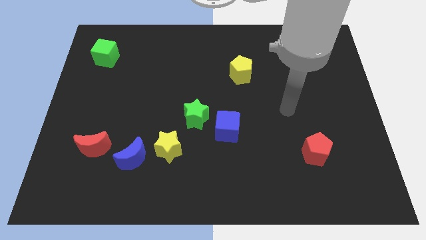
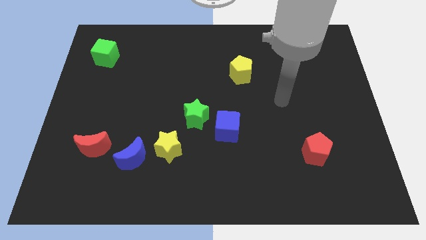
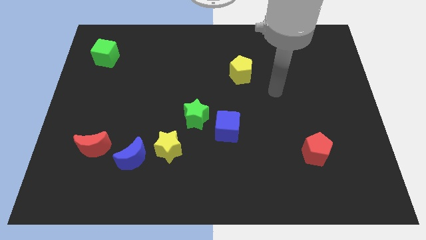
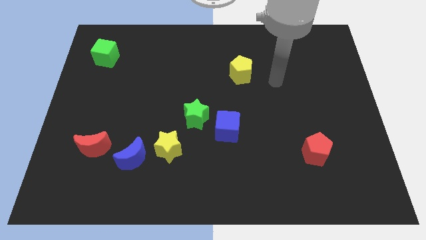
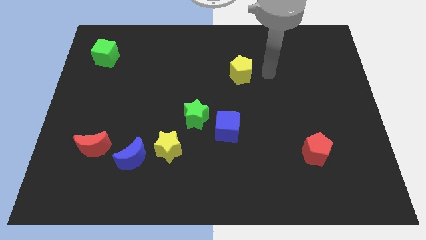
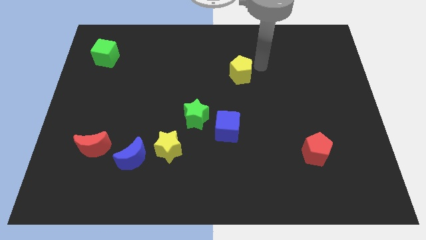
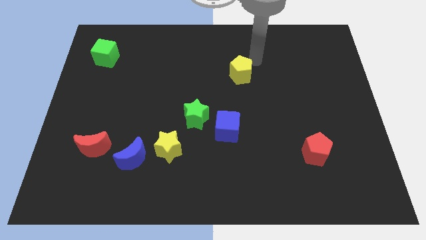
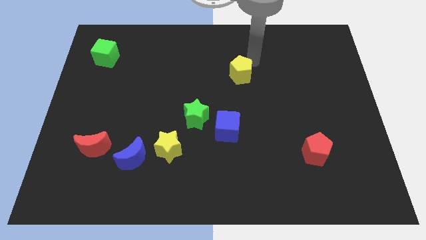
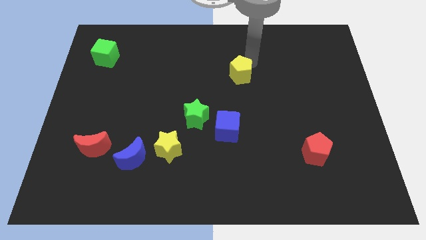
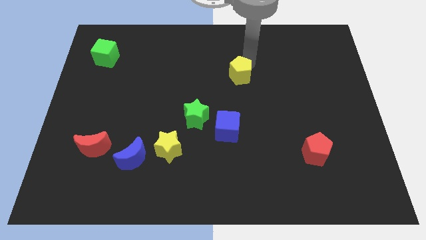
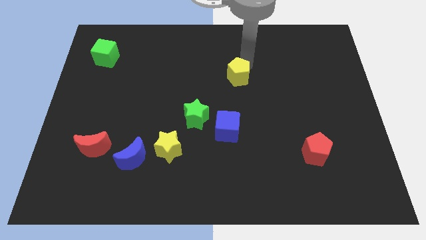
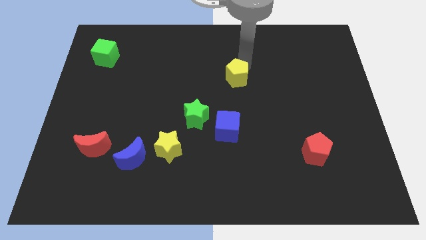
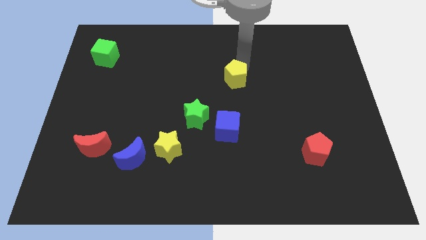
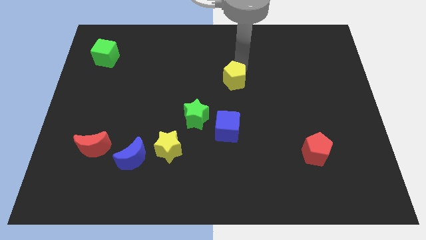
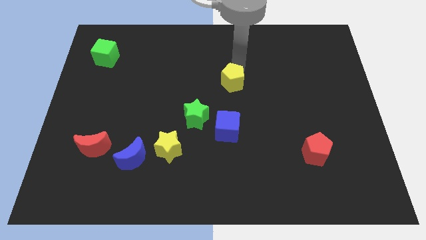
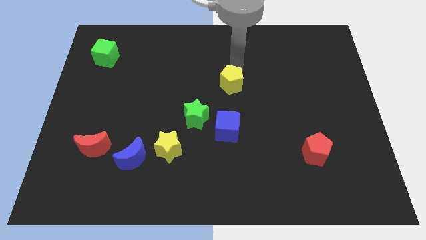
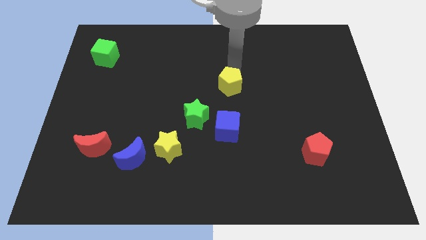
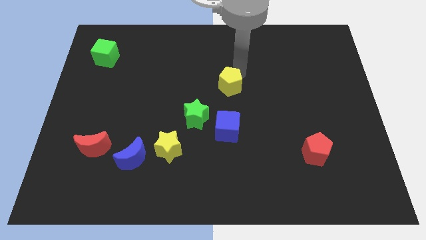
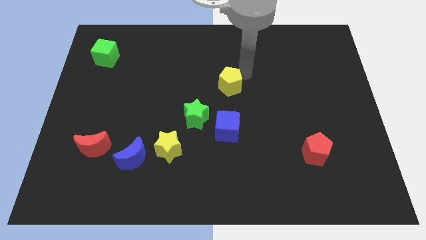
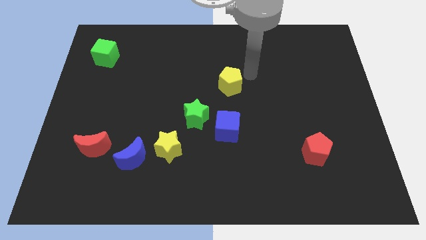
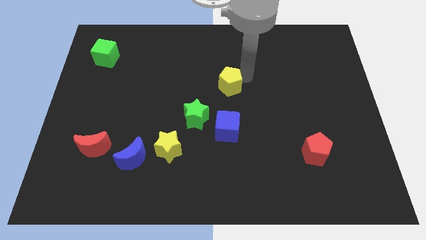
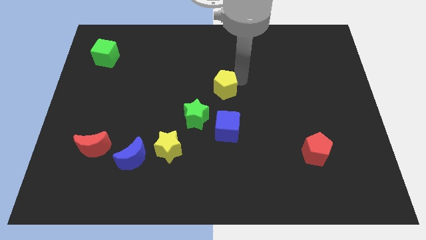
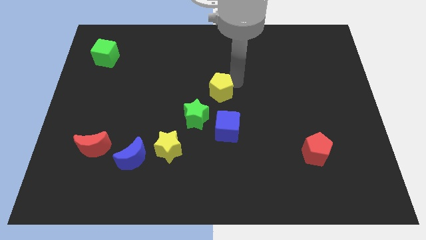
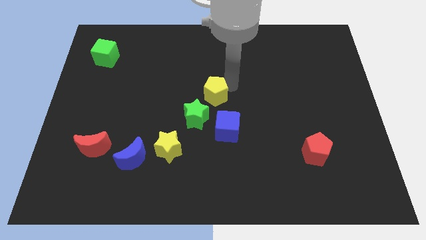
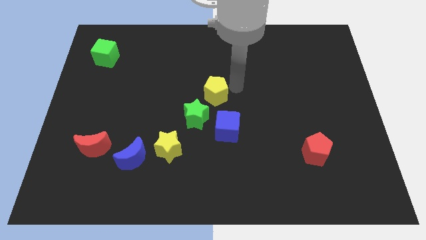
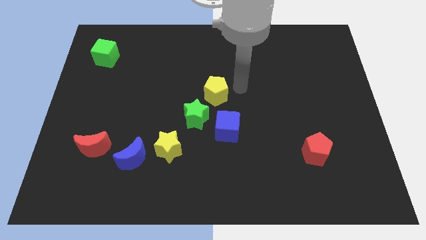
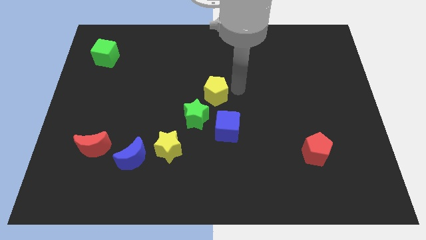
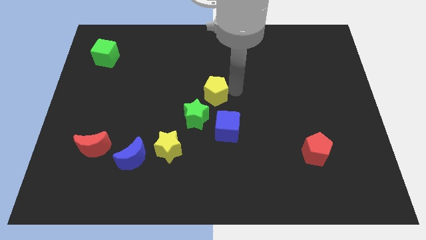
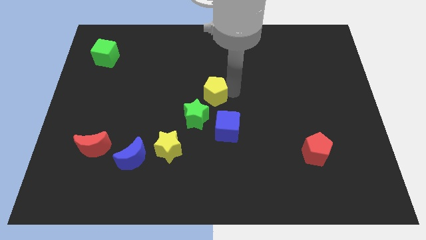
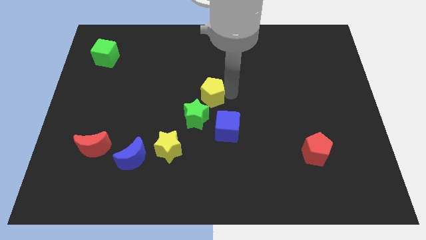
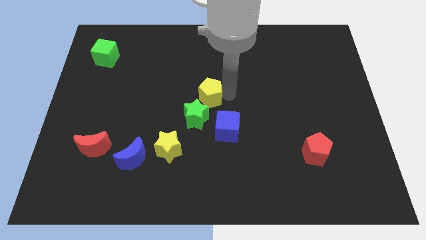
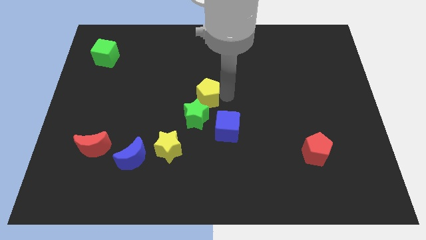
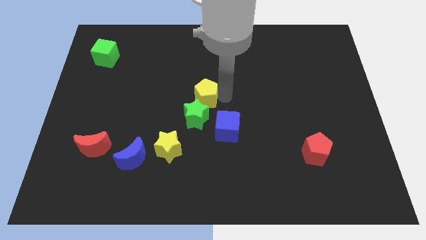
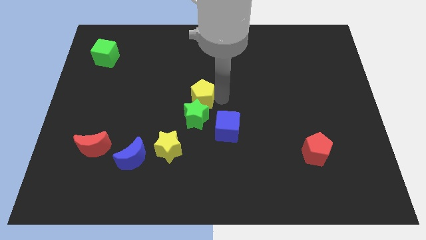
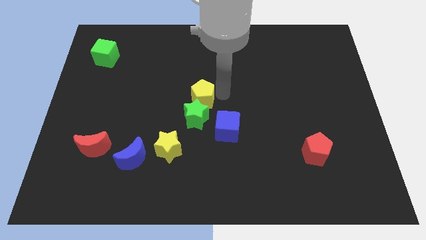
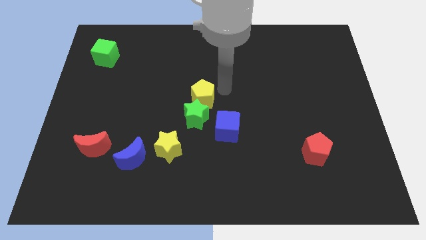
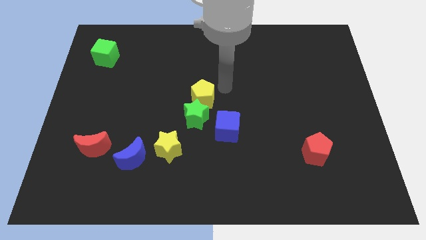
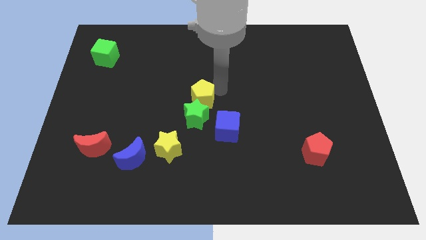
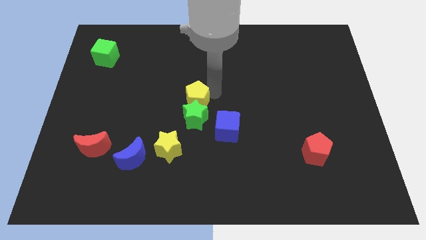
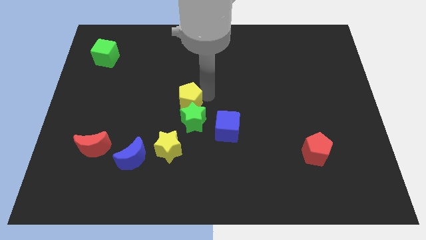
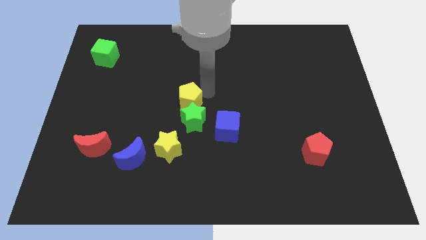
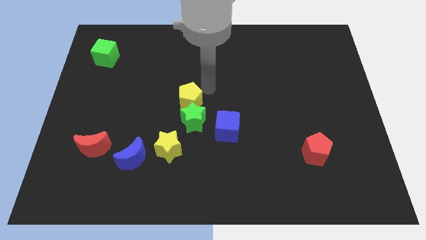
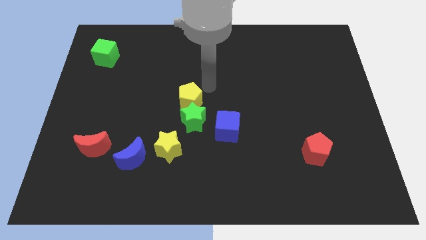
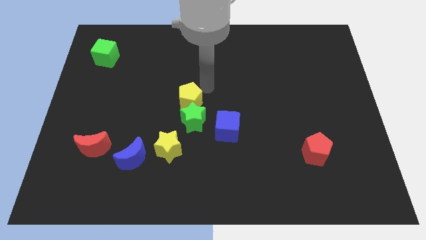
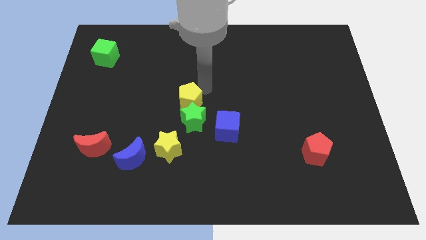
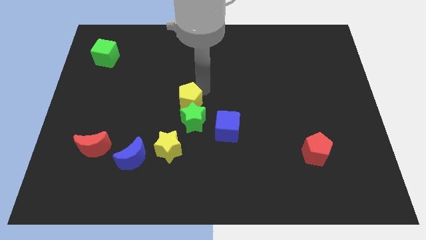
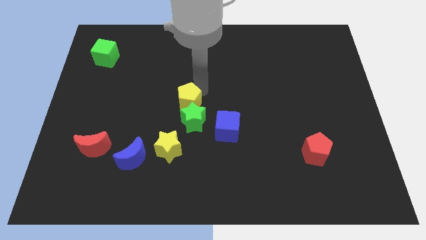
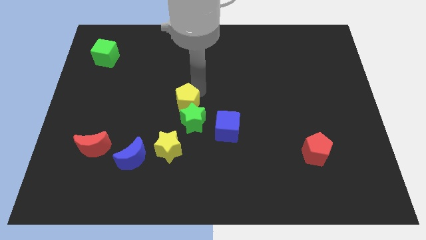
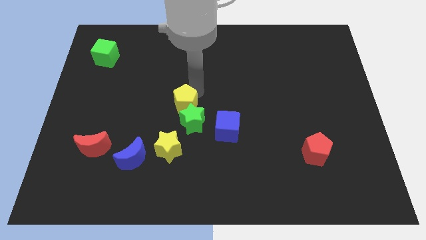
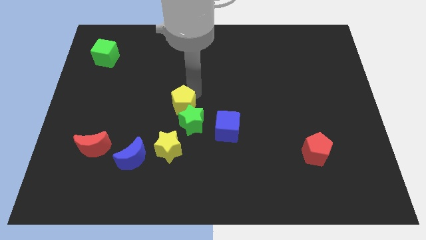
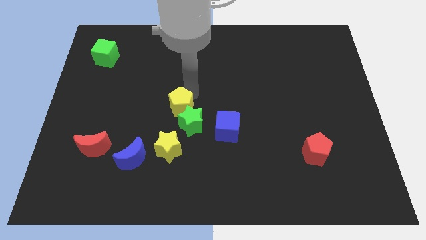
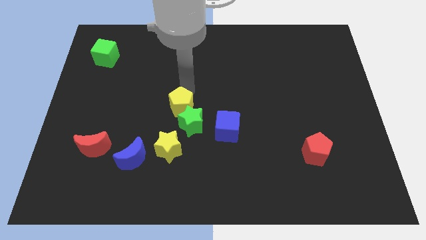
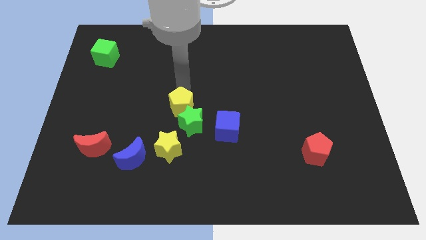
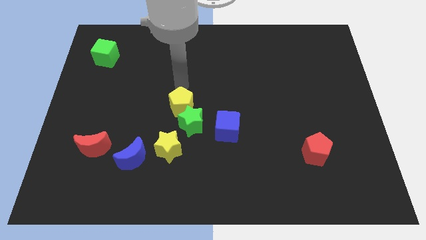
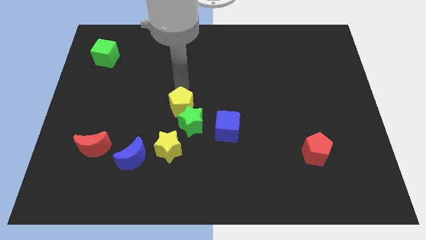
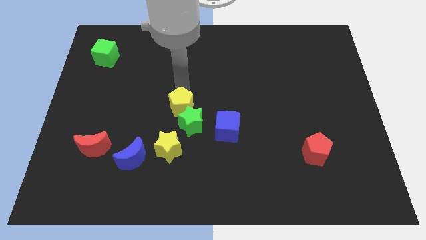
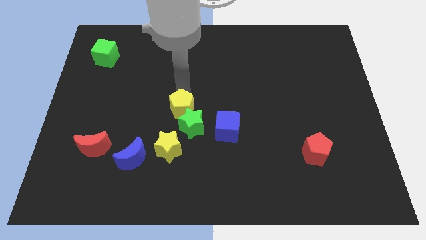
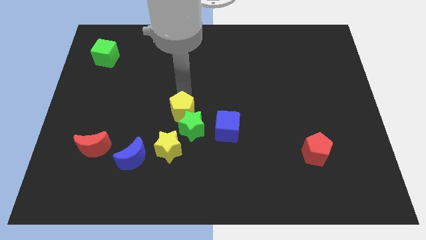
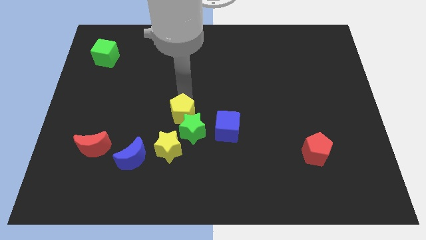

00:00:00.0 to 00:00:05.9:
move the yellow pentagon to the left side of the blue cube

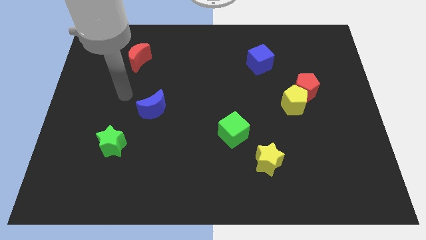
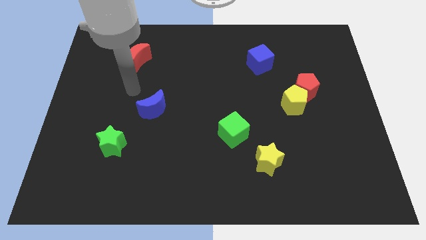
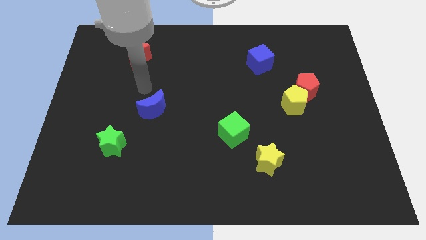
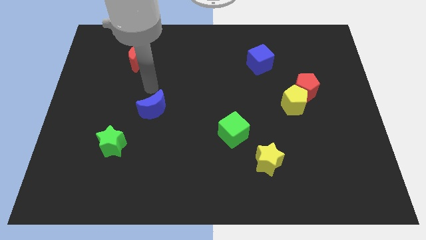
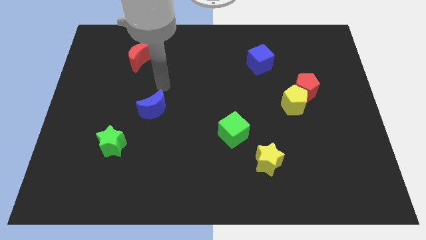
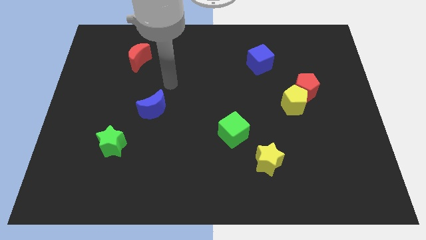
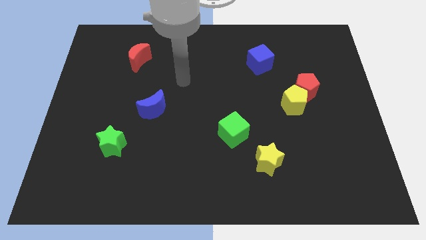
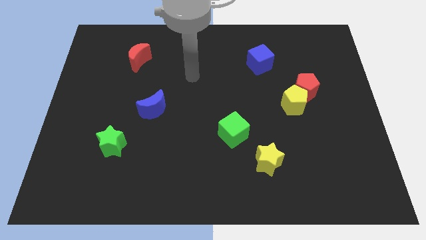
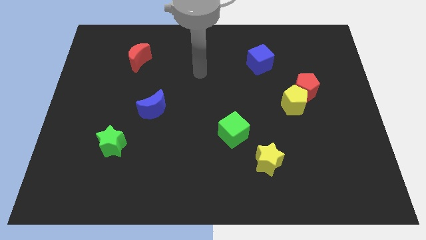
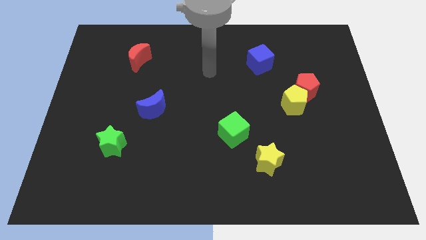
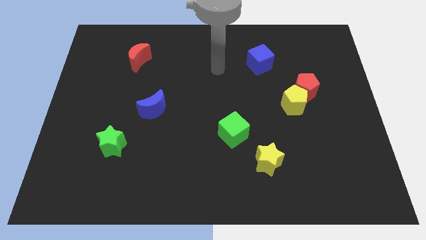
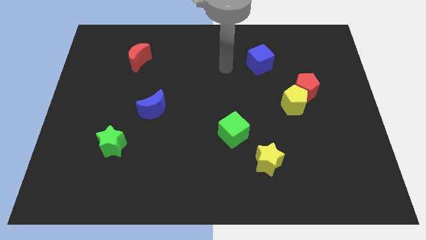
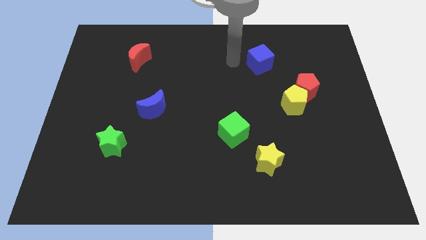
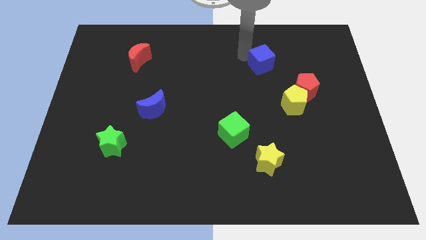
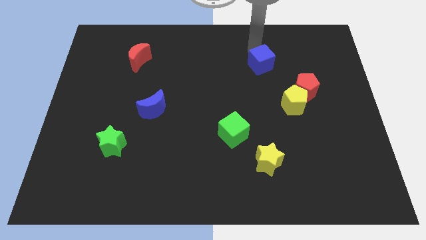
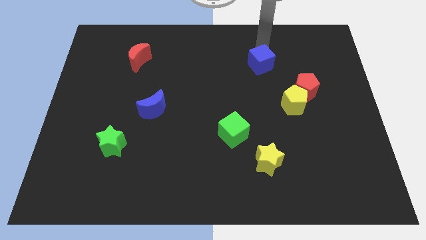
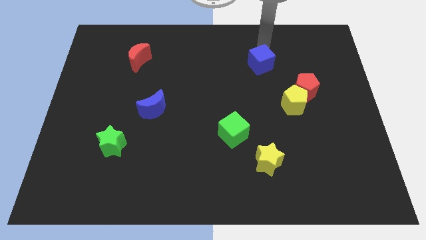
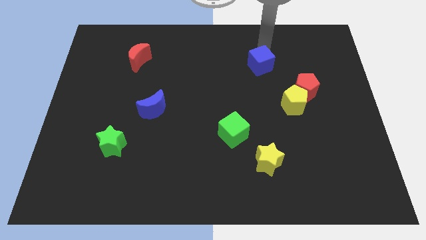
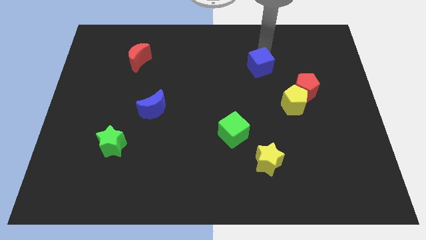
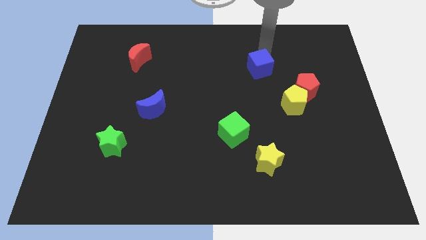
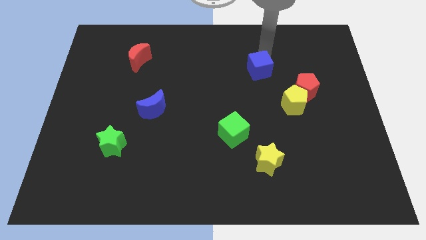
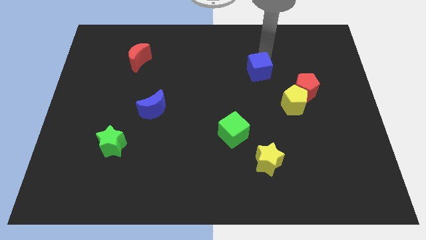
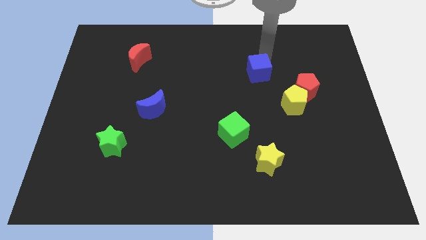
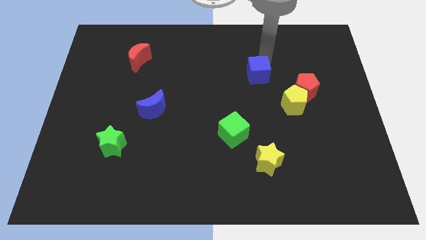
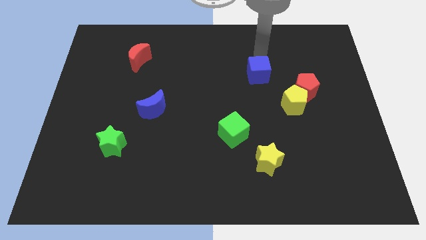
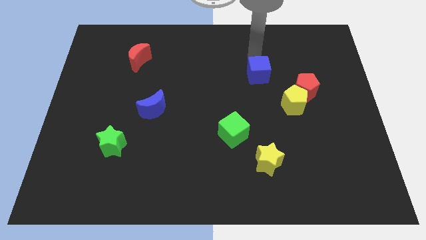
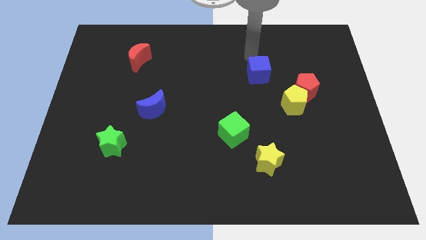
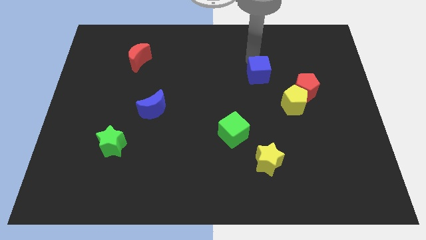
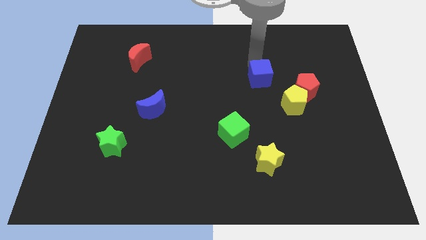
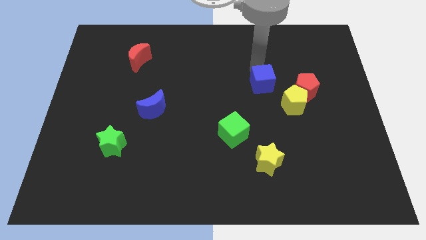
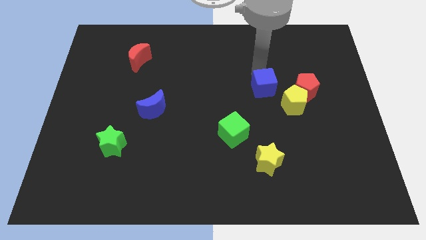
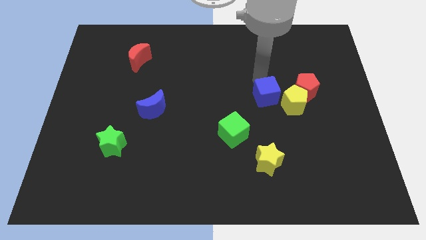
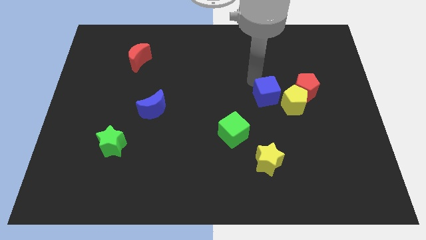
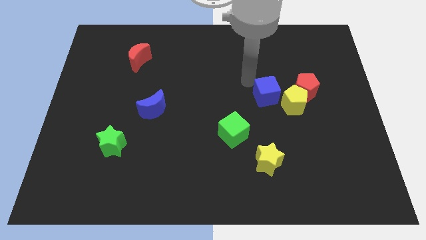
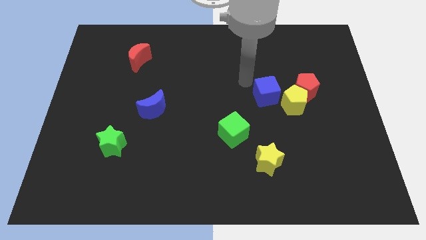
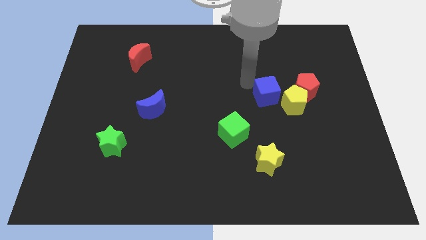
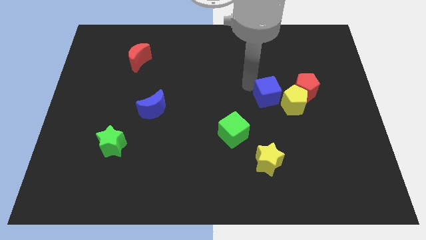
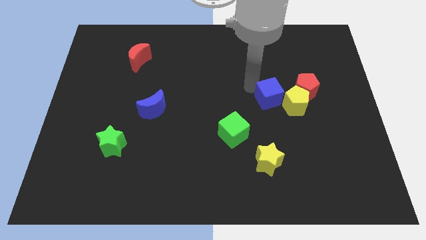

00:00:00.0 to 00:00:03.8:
put the blue cube diagonally down and to the left of the red pentagon
